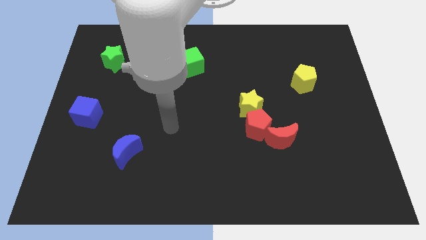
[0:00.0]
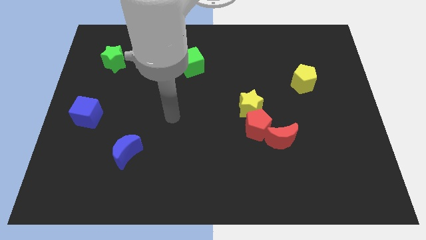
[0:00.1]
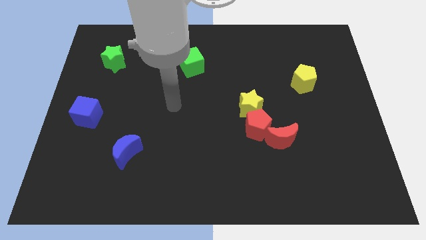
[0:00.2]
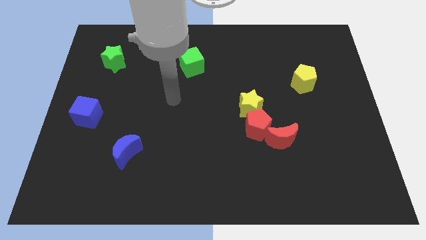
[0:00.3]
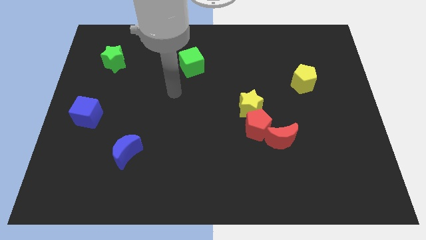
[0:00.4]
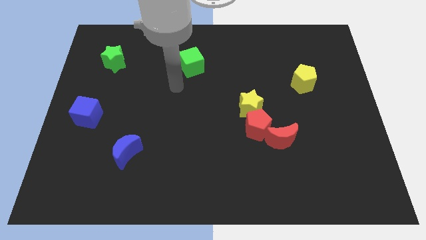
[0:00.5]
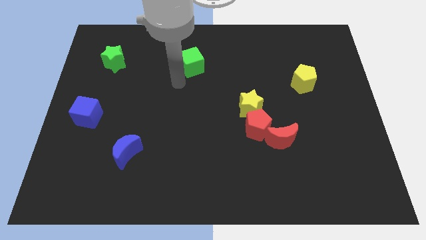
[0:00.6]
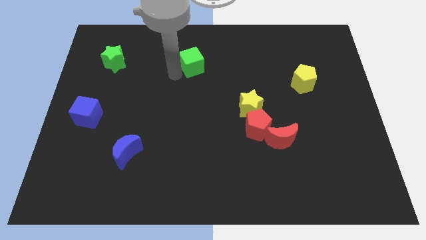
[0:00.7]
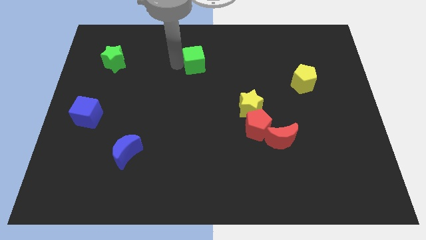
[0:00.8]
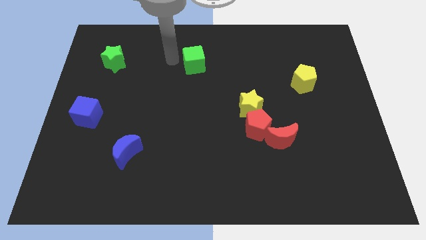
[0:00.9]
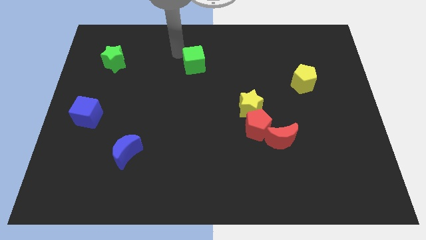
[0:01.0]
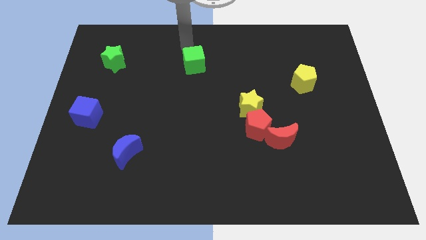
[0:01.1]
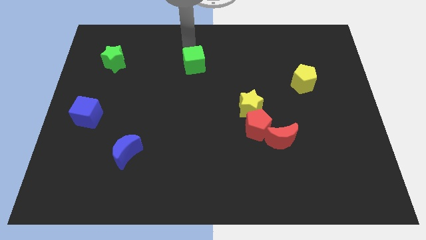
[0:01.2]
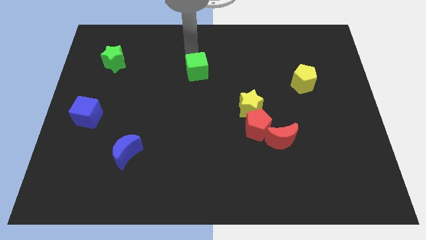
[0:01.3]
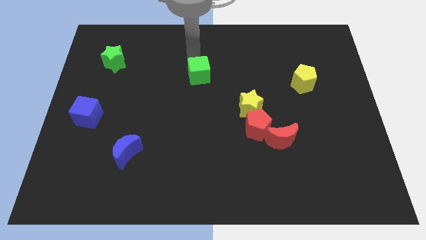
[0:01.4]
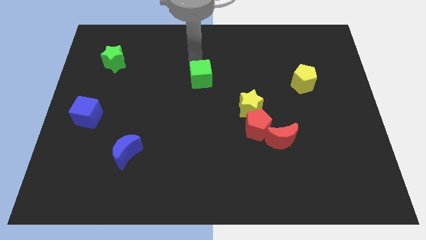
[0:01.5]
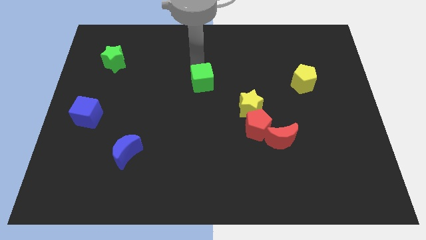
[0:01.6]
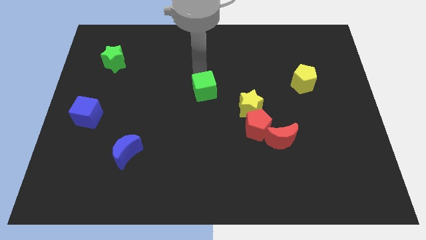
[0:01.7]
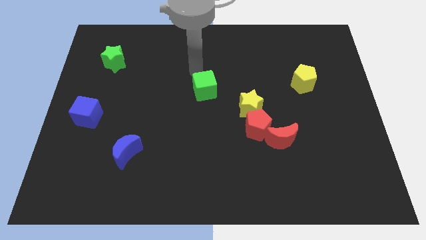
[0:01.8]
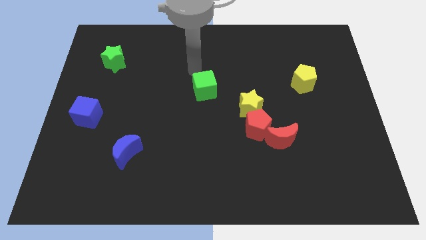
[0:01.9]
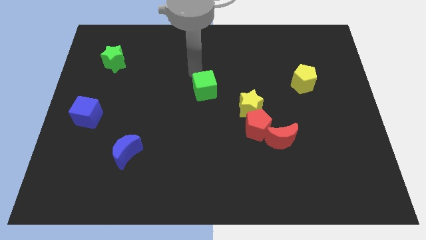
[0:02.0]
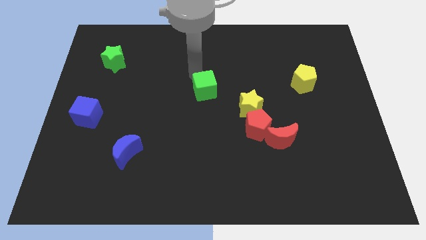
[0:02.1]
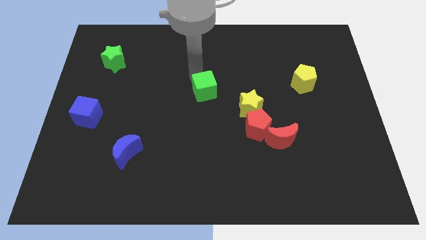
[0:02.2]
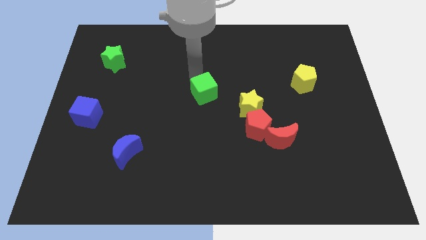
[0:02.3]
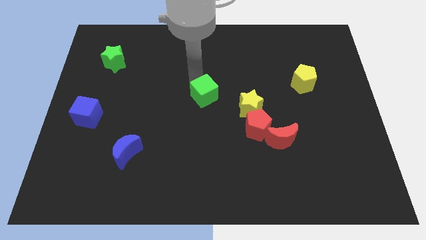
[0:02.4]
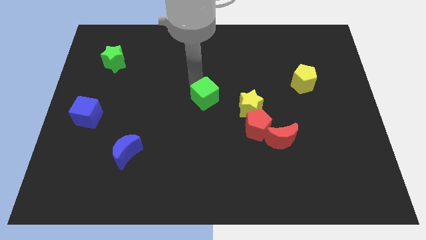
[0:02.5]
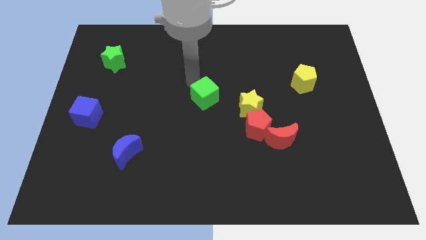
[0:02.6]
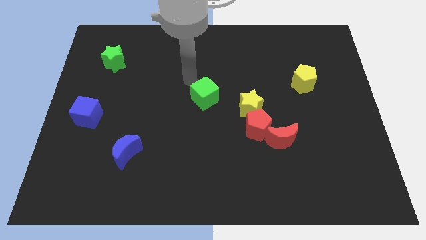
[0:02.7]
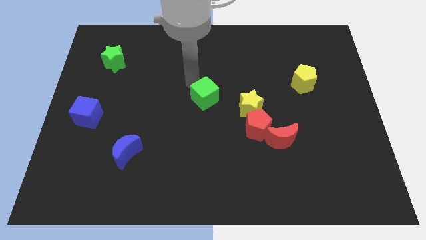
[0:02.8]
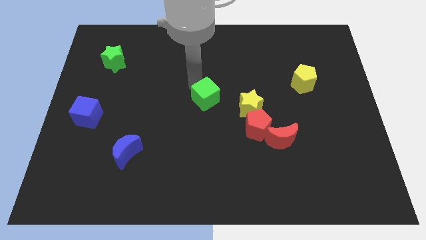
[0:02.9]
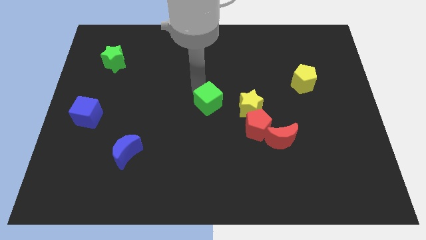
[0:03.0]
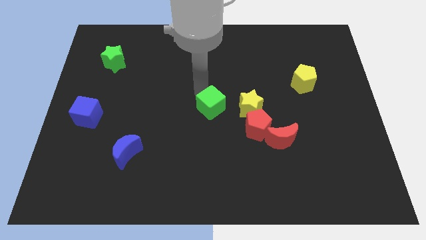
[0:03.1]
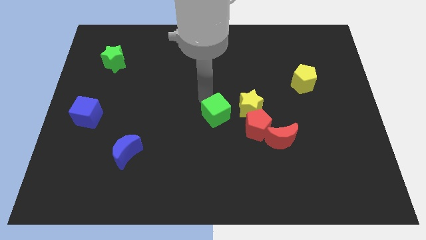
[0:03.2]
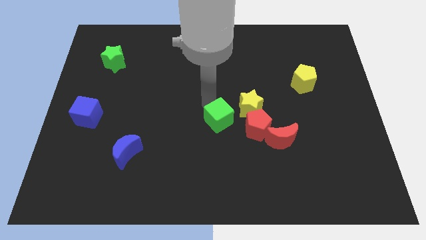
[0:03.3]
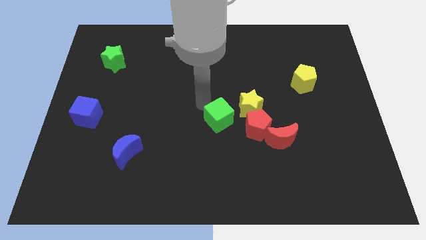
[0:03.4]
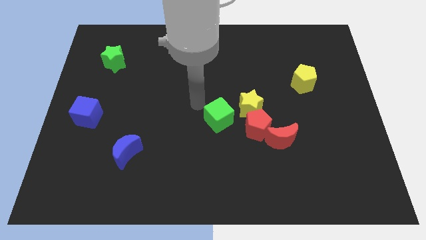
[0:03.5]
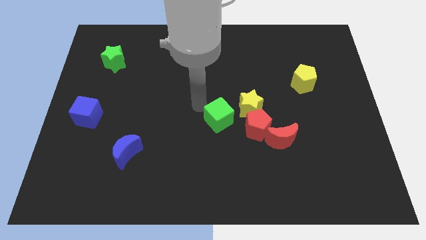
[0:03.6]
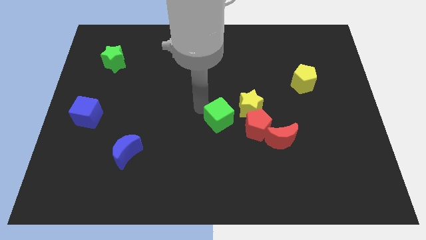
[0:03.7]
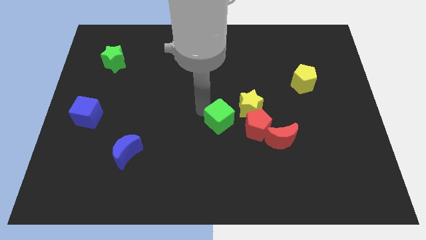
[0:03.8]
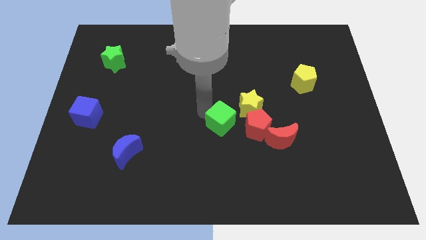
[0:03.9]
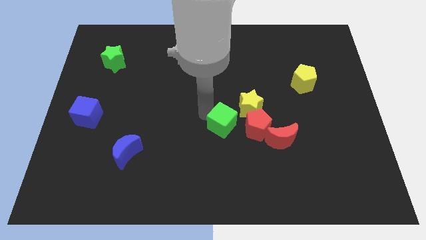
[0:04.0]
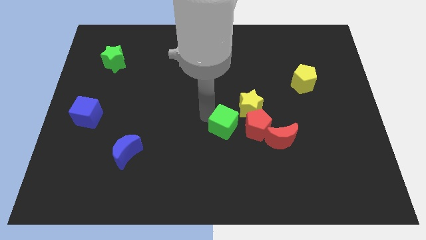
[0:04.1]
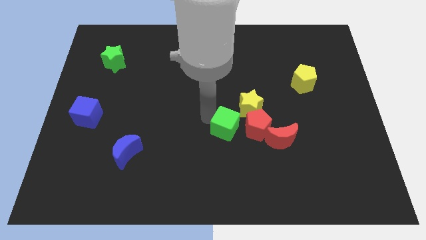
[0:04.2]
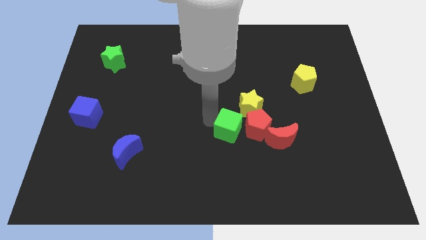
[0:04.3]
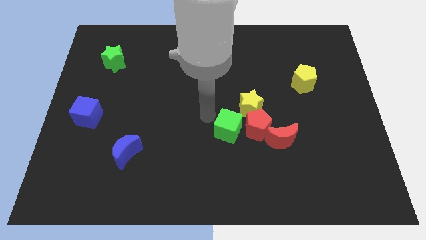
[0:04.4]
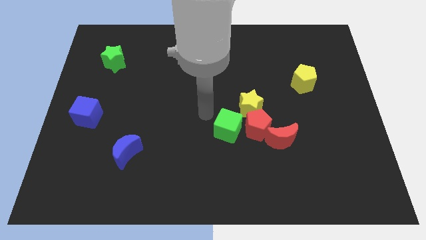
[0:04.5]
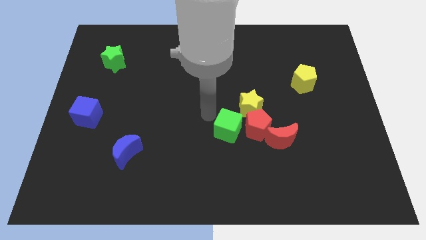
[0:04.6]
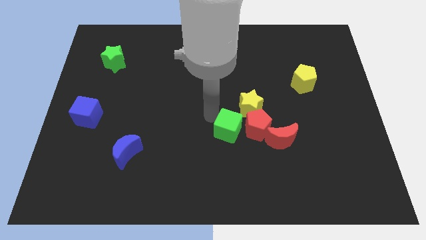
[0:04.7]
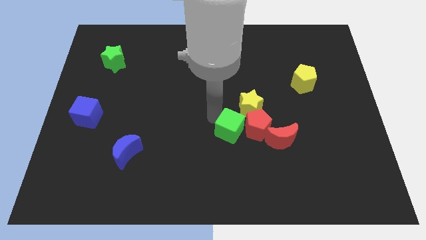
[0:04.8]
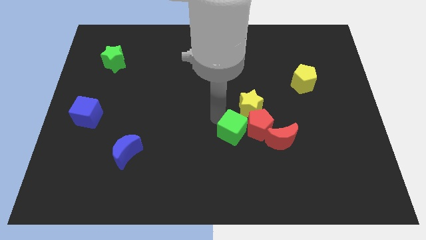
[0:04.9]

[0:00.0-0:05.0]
slide the green cube to the bottom side of the yellow star

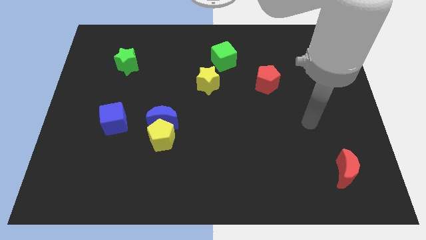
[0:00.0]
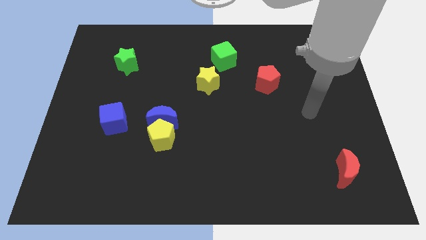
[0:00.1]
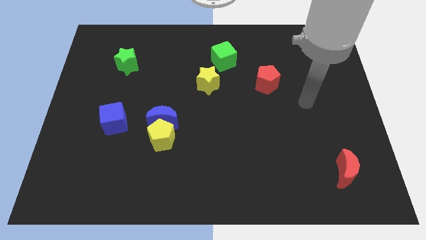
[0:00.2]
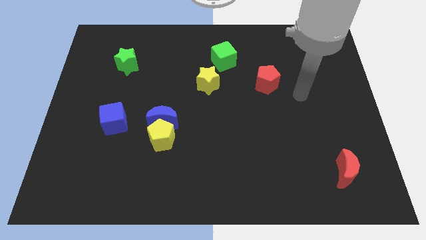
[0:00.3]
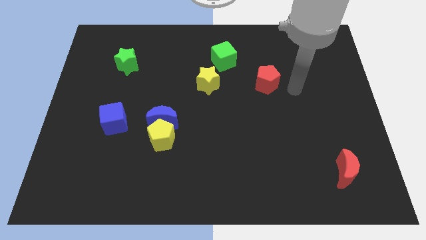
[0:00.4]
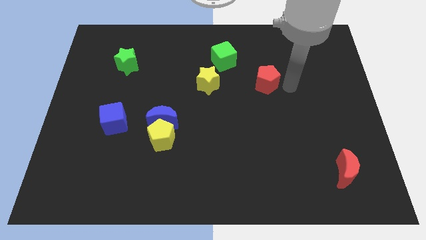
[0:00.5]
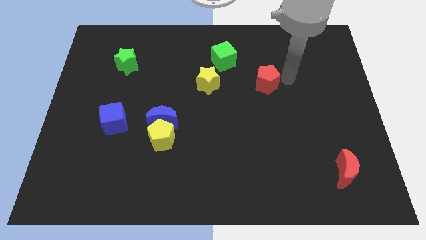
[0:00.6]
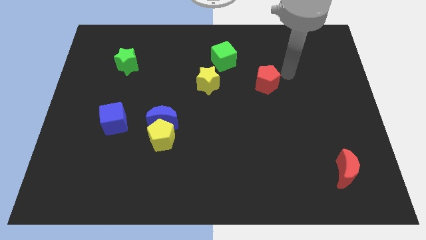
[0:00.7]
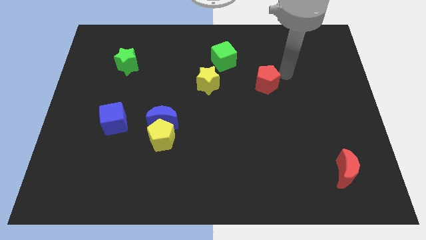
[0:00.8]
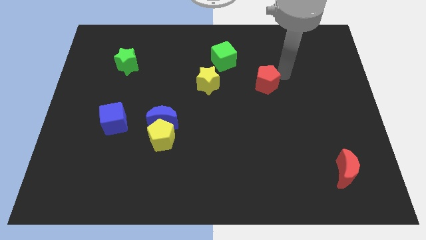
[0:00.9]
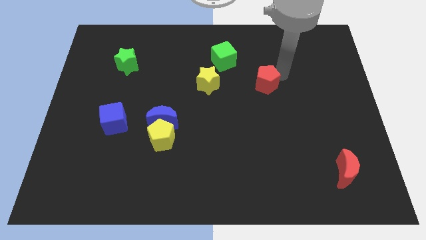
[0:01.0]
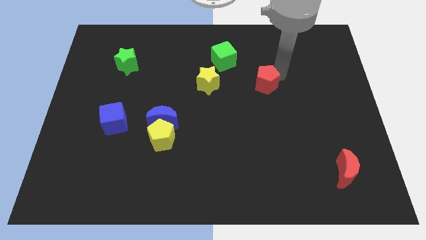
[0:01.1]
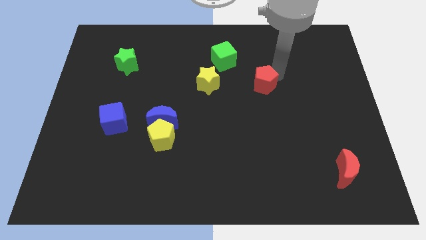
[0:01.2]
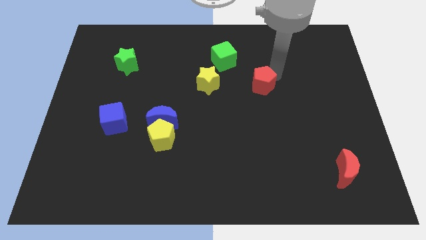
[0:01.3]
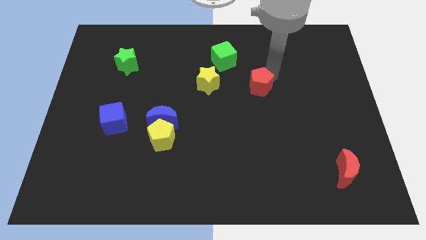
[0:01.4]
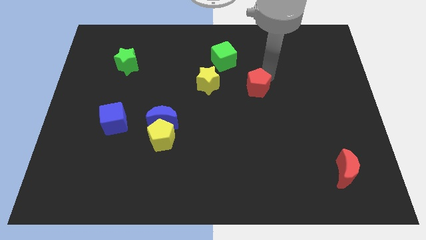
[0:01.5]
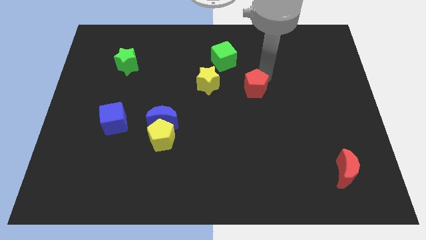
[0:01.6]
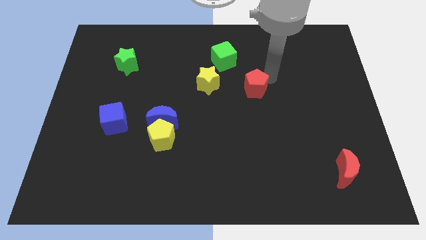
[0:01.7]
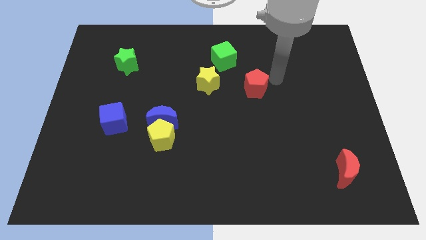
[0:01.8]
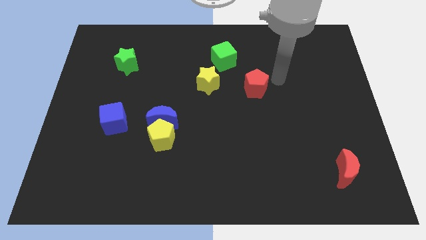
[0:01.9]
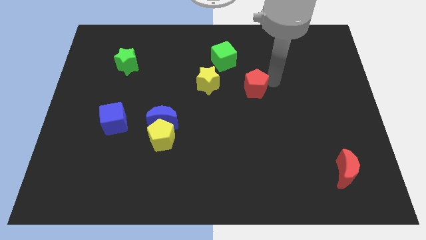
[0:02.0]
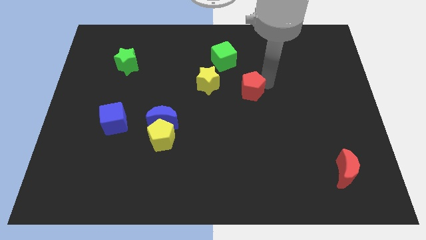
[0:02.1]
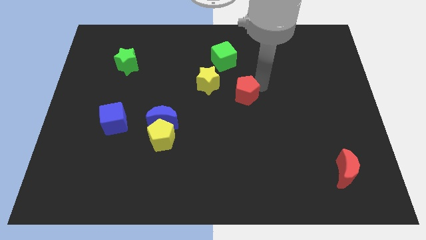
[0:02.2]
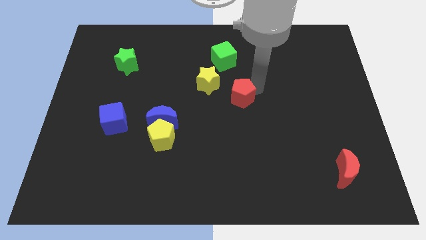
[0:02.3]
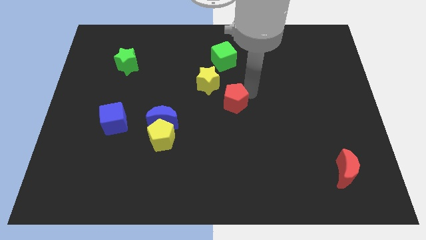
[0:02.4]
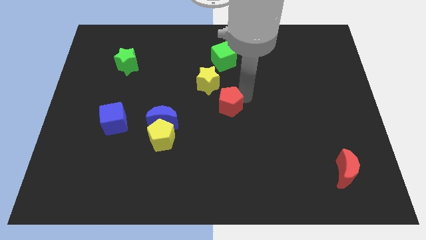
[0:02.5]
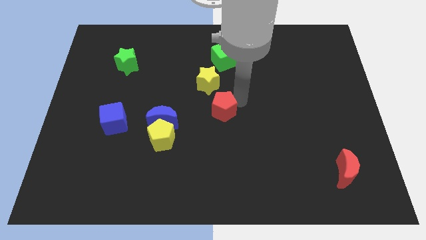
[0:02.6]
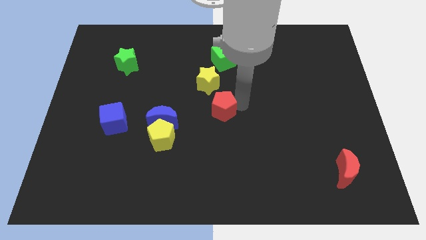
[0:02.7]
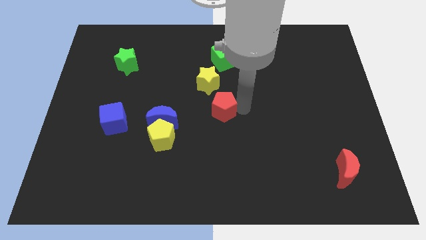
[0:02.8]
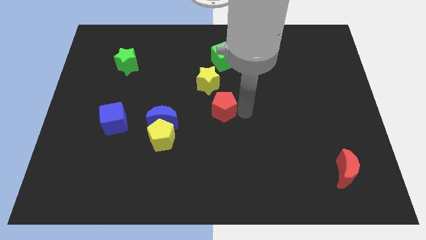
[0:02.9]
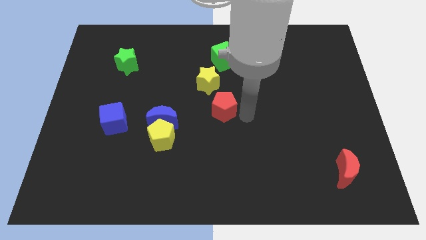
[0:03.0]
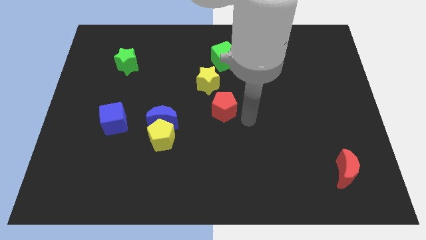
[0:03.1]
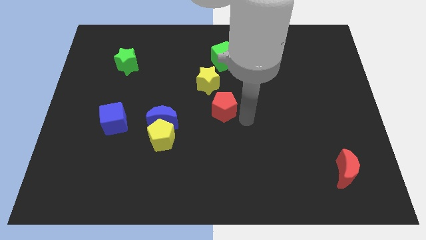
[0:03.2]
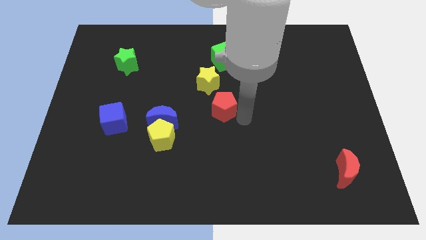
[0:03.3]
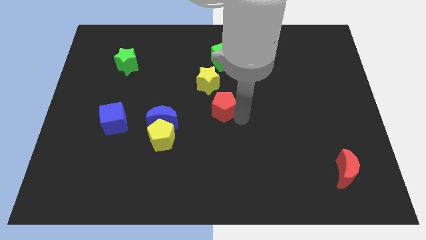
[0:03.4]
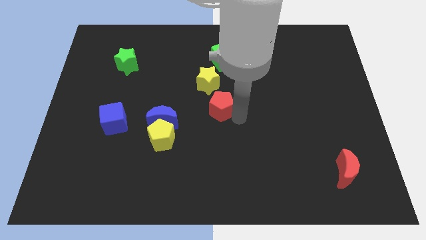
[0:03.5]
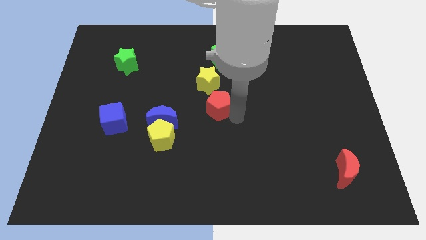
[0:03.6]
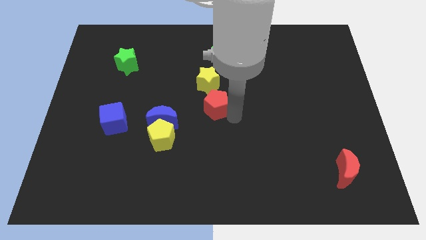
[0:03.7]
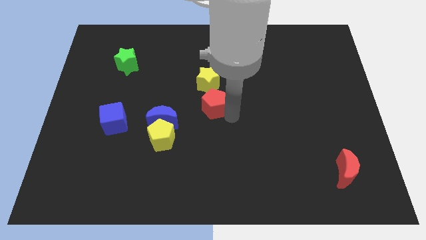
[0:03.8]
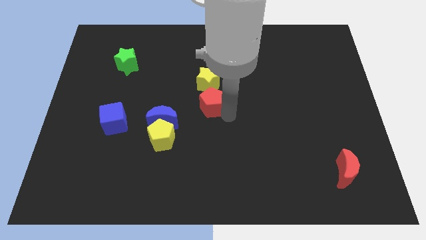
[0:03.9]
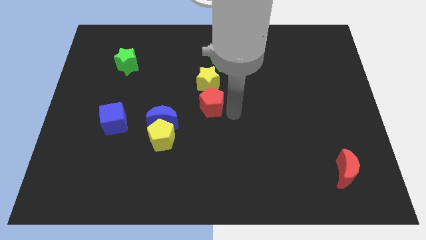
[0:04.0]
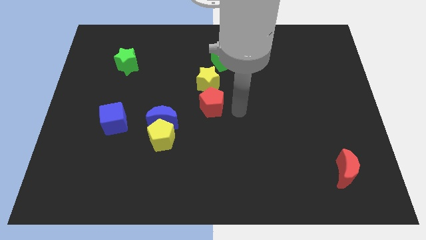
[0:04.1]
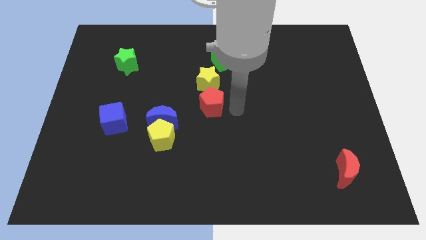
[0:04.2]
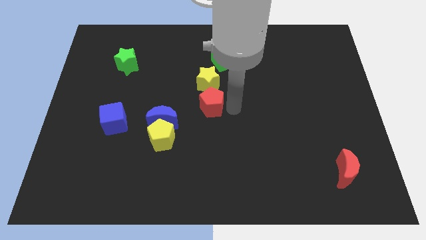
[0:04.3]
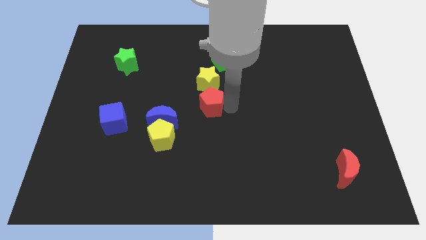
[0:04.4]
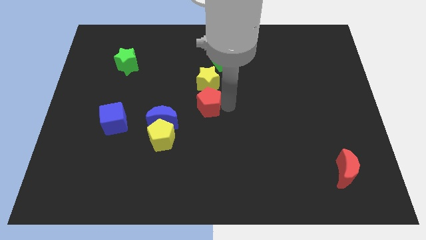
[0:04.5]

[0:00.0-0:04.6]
slide the red pentagon diagonally down and to the left of the yellow star
